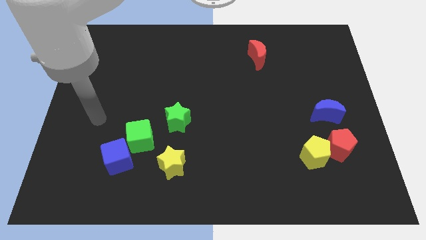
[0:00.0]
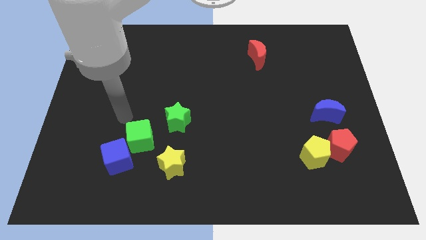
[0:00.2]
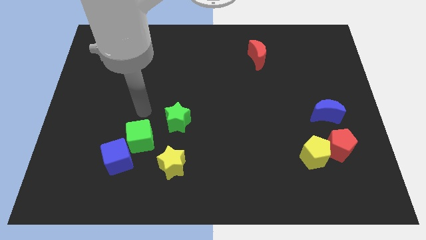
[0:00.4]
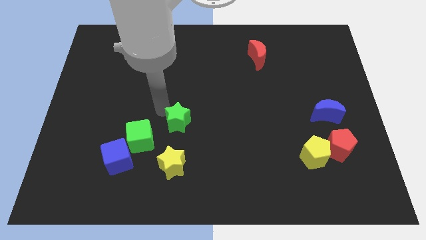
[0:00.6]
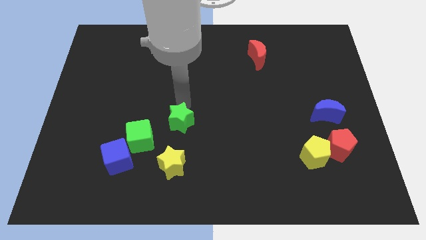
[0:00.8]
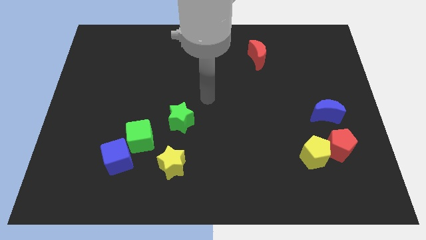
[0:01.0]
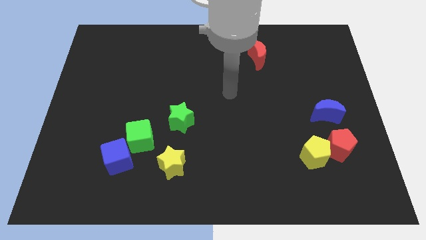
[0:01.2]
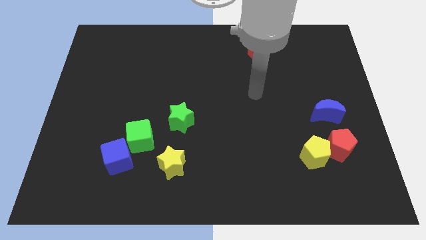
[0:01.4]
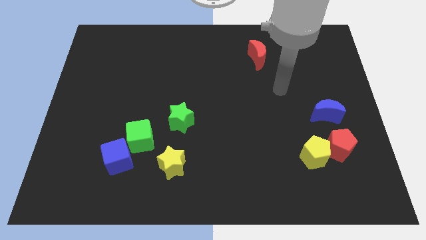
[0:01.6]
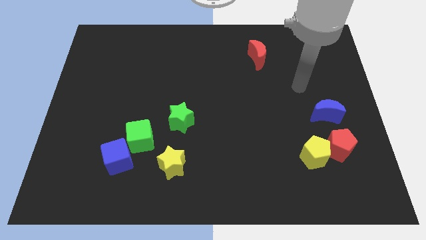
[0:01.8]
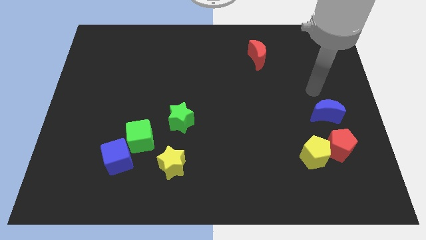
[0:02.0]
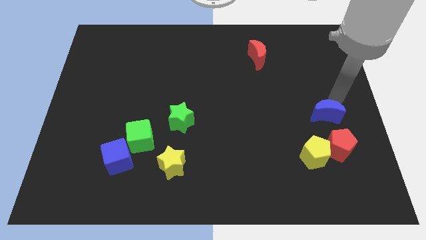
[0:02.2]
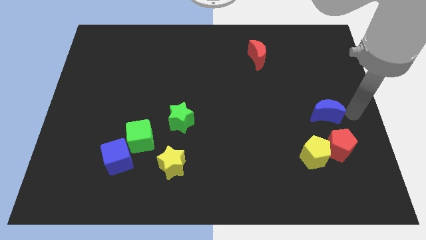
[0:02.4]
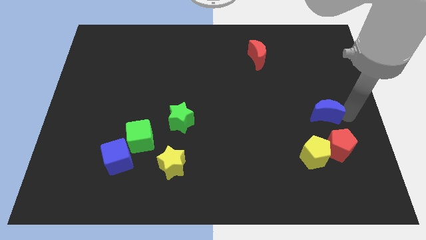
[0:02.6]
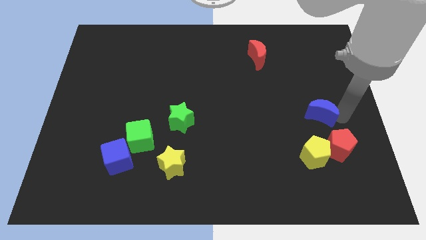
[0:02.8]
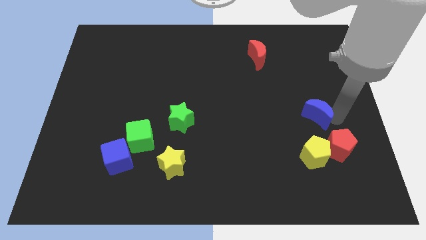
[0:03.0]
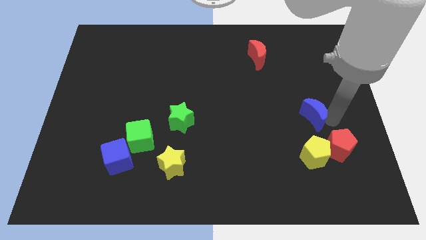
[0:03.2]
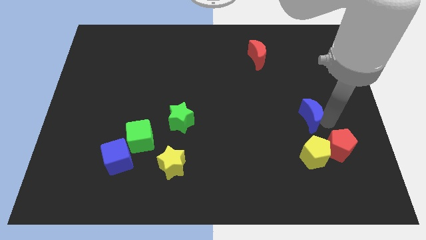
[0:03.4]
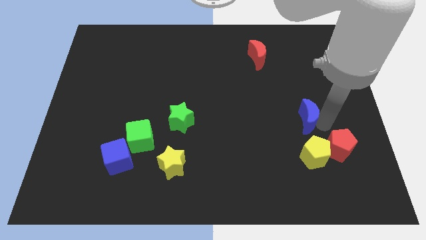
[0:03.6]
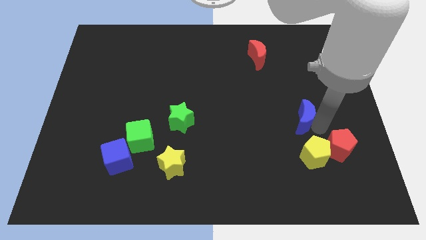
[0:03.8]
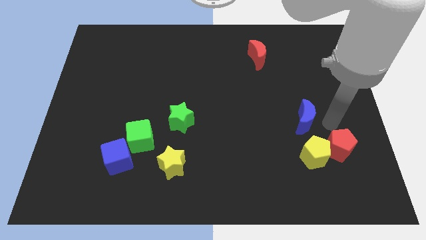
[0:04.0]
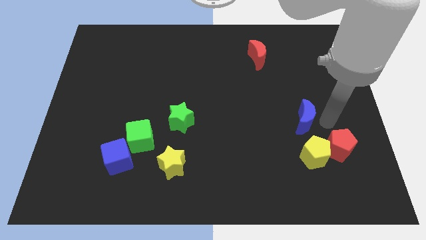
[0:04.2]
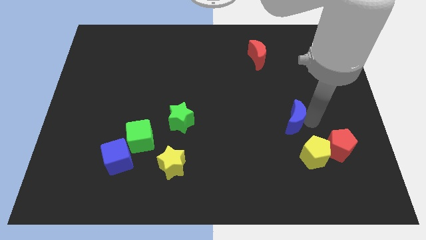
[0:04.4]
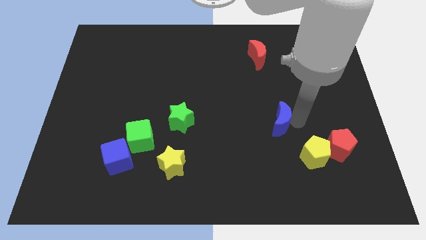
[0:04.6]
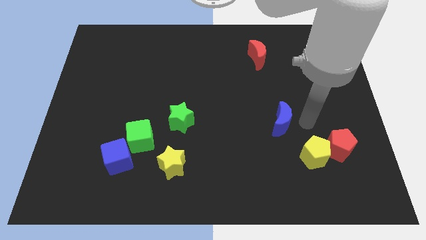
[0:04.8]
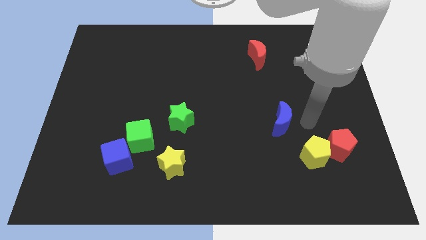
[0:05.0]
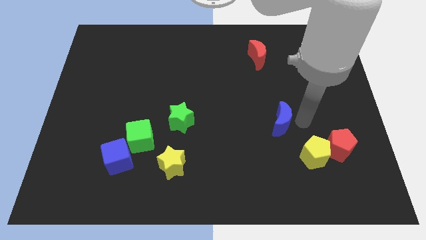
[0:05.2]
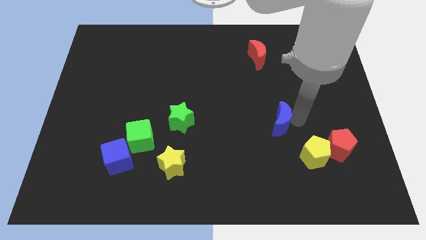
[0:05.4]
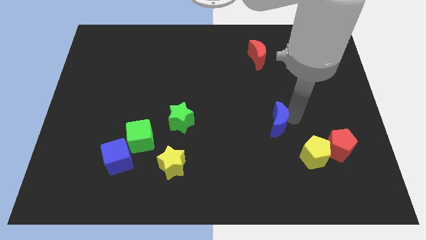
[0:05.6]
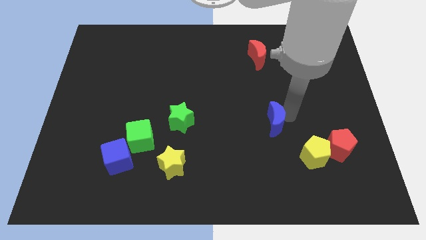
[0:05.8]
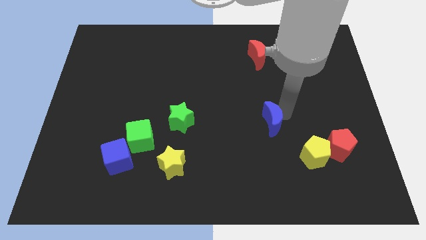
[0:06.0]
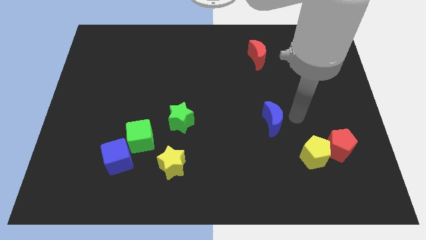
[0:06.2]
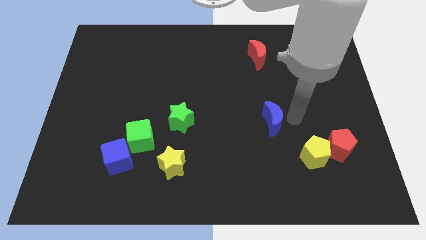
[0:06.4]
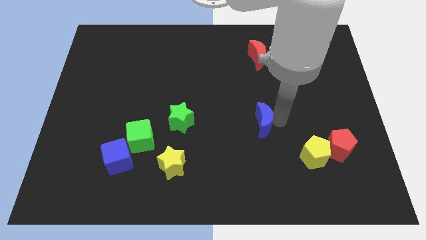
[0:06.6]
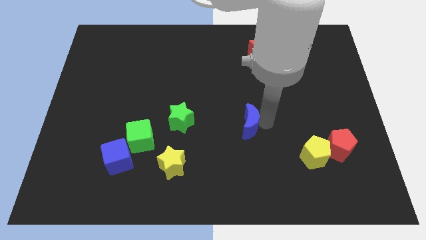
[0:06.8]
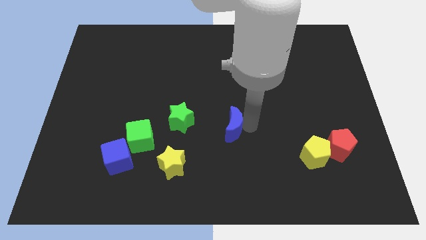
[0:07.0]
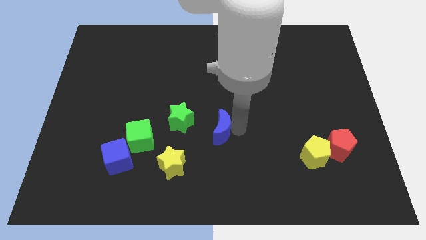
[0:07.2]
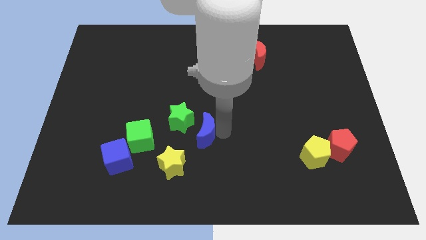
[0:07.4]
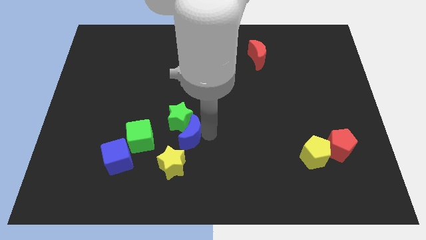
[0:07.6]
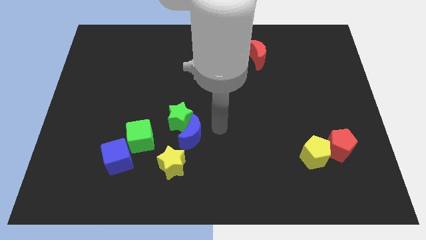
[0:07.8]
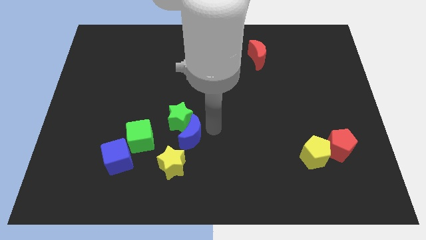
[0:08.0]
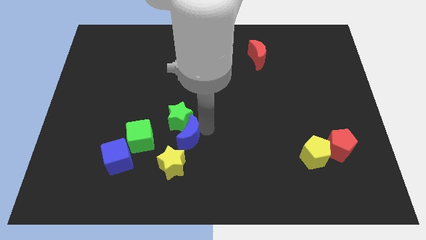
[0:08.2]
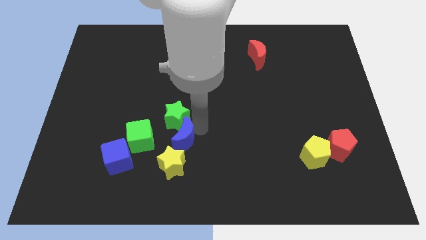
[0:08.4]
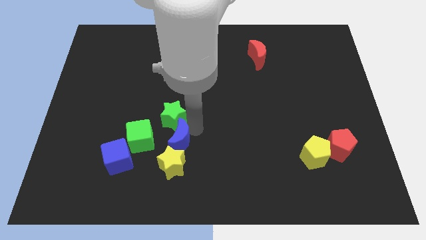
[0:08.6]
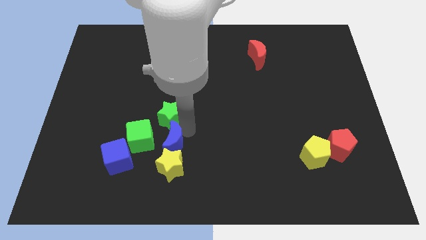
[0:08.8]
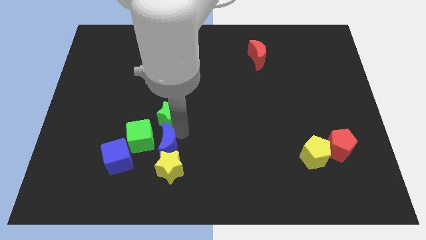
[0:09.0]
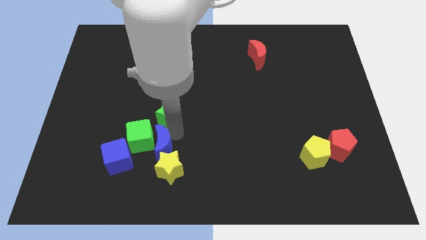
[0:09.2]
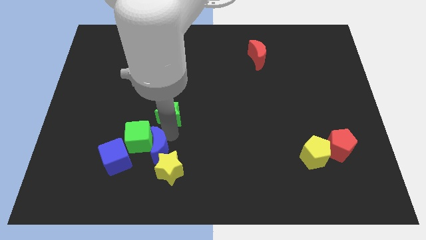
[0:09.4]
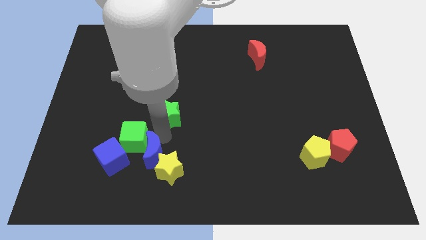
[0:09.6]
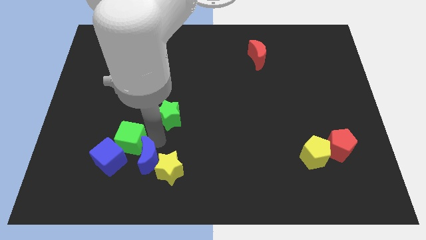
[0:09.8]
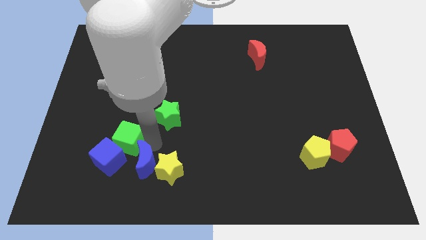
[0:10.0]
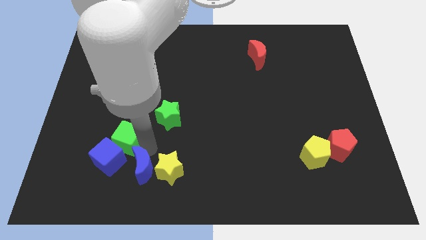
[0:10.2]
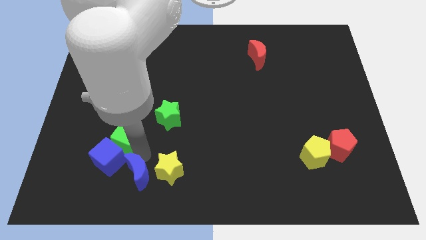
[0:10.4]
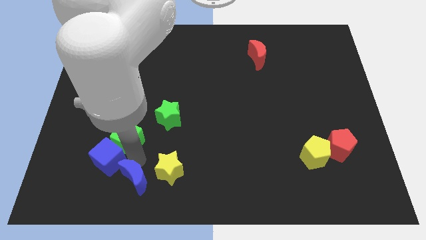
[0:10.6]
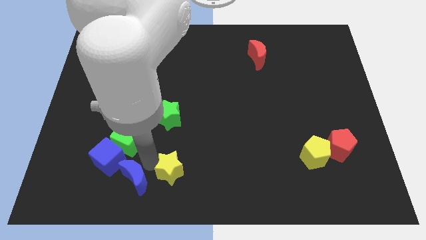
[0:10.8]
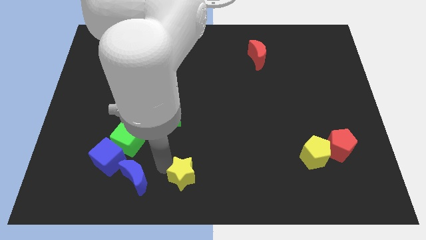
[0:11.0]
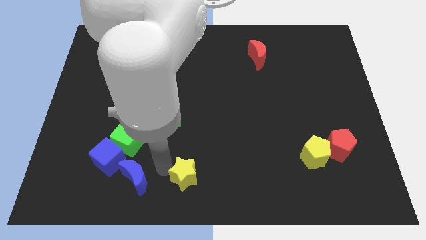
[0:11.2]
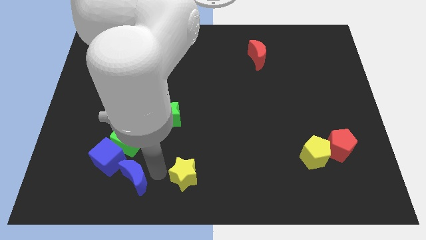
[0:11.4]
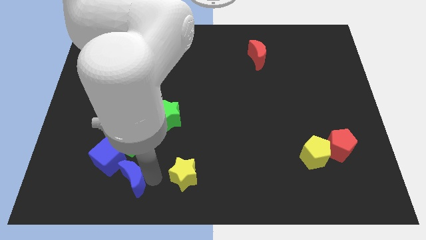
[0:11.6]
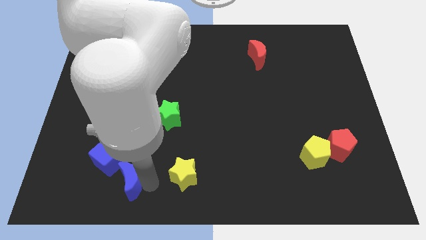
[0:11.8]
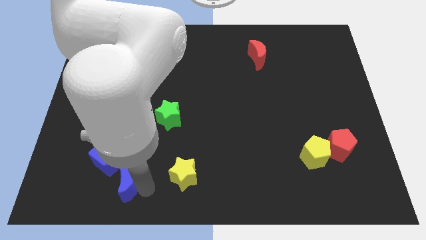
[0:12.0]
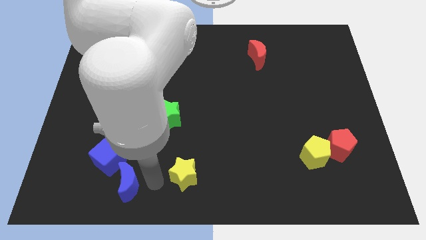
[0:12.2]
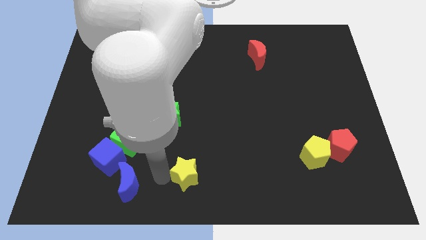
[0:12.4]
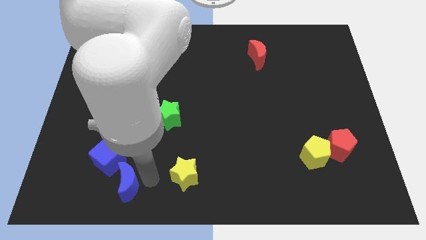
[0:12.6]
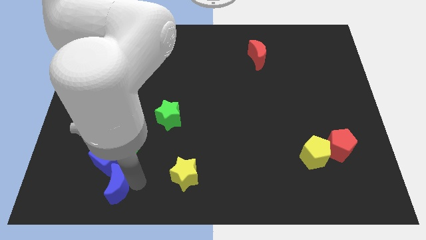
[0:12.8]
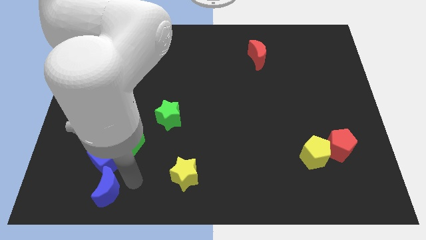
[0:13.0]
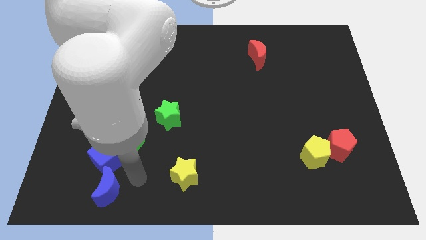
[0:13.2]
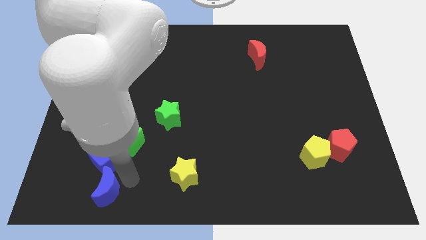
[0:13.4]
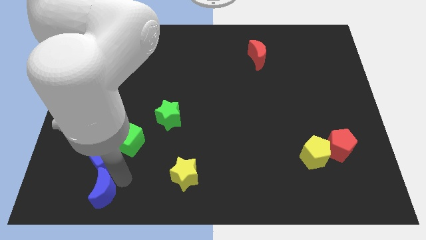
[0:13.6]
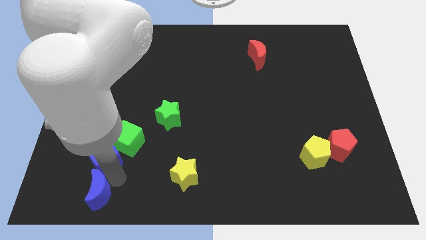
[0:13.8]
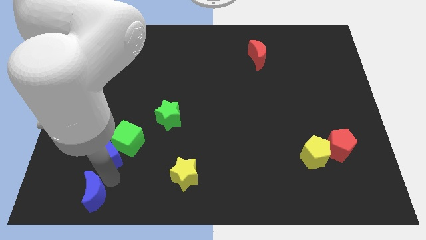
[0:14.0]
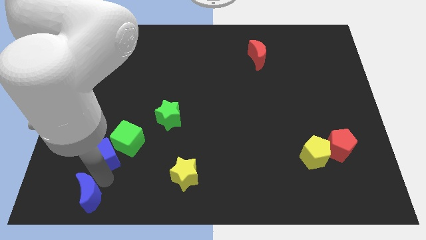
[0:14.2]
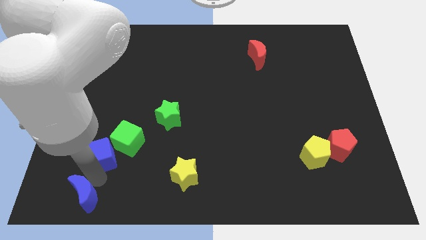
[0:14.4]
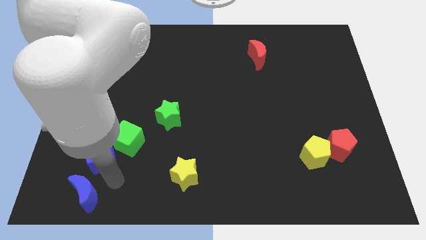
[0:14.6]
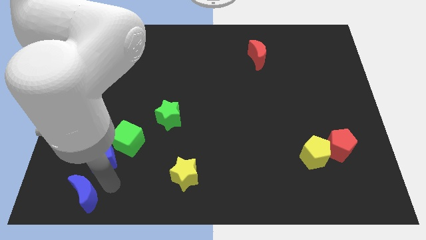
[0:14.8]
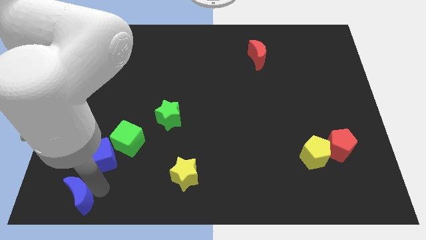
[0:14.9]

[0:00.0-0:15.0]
put the blue moon to the lower left corner
